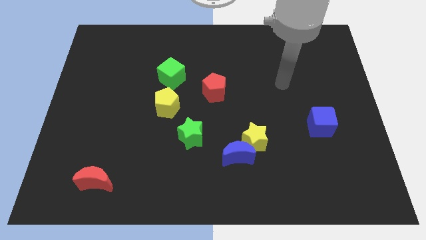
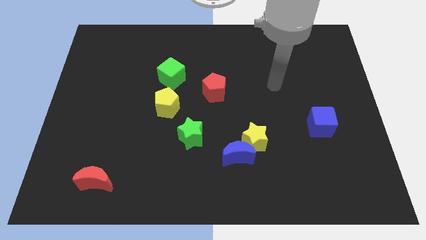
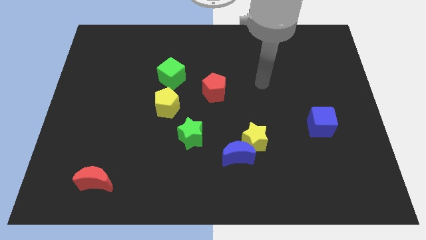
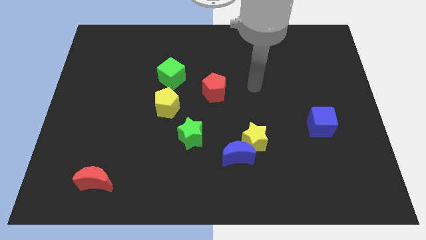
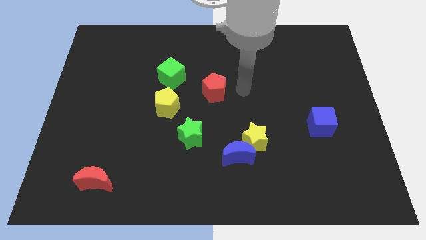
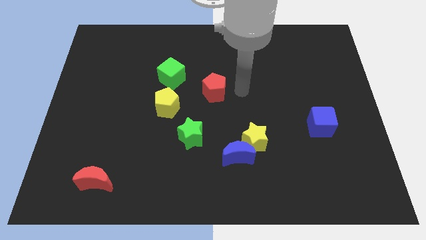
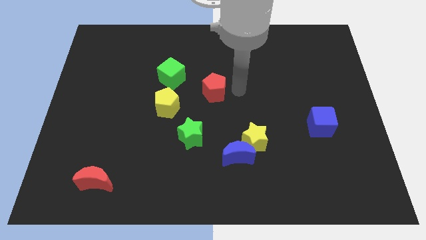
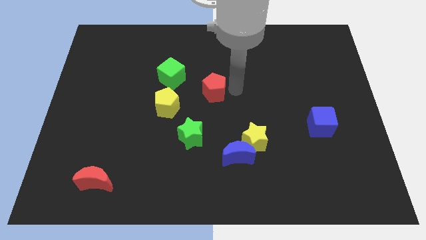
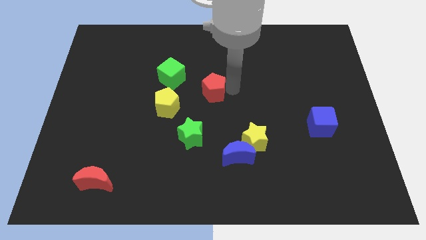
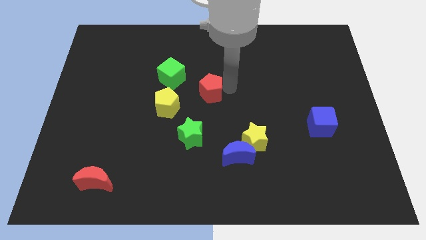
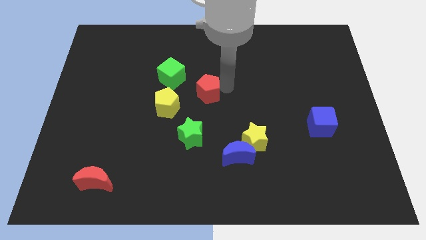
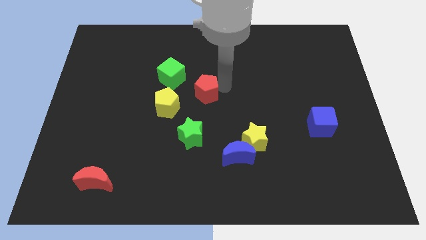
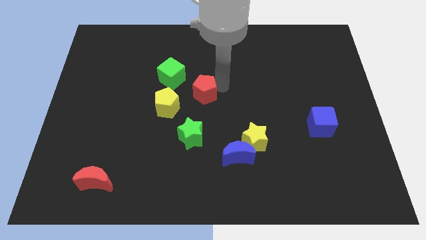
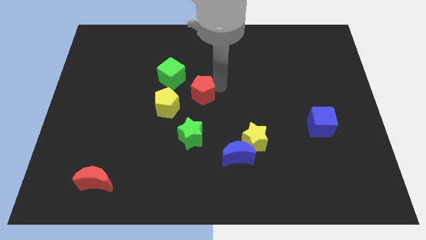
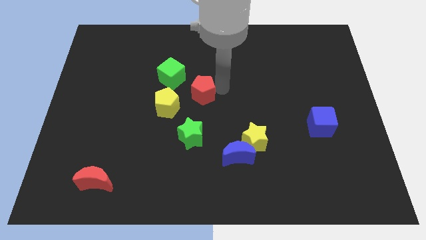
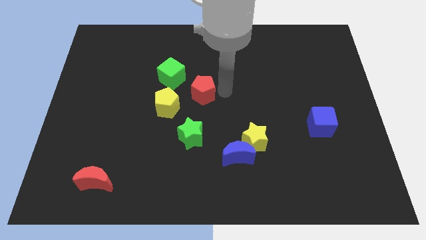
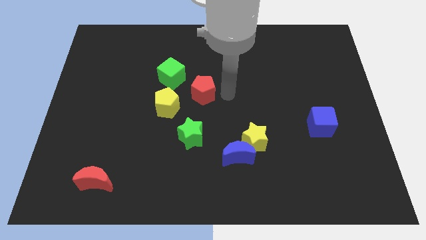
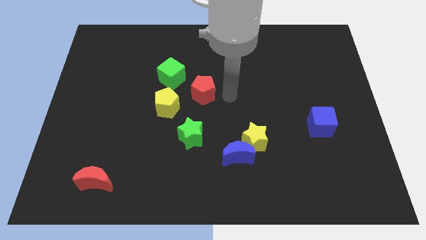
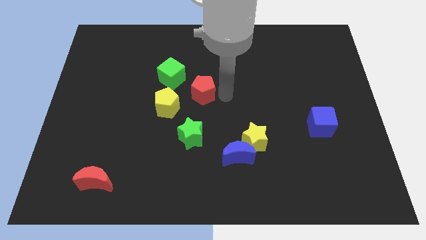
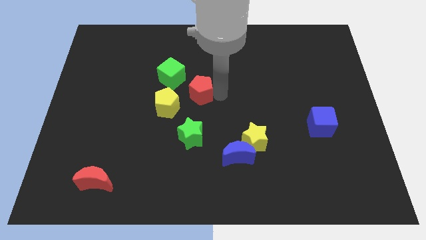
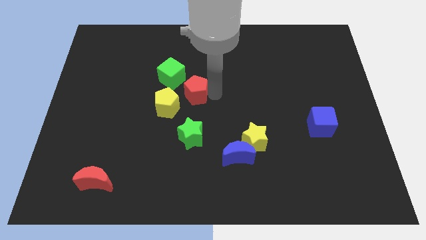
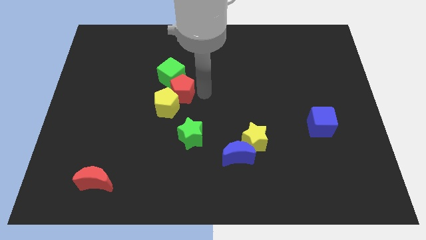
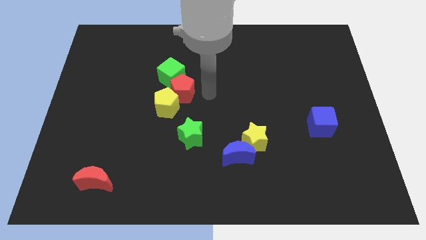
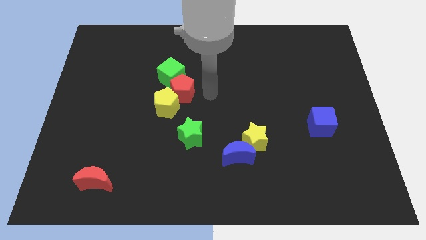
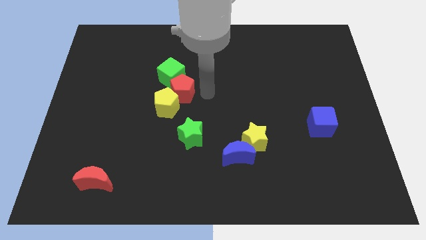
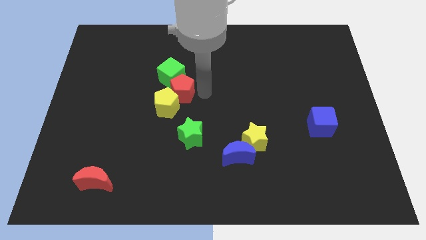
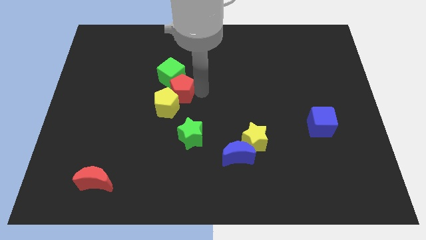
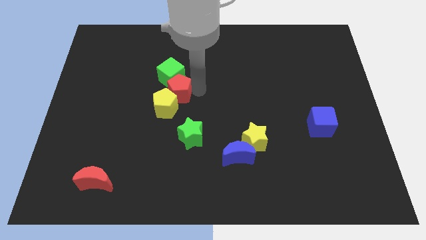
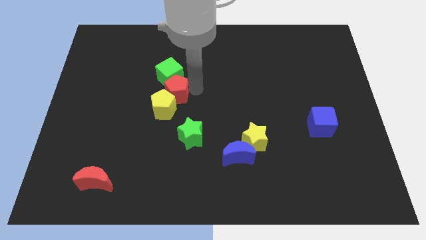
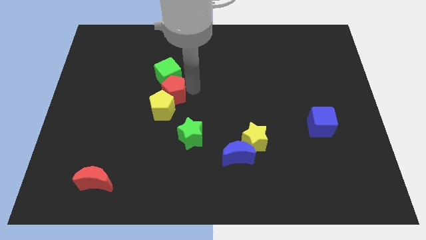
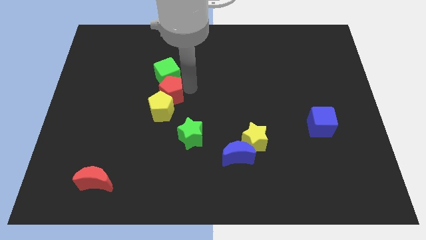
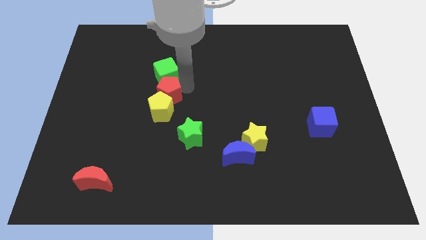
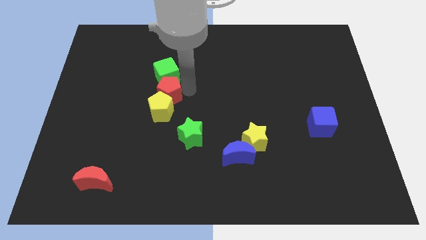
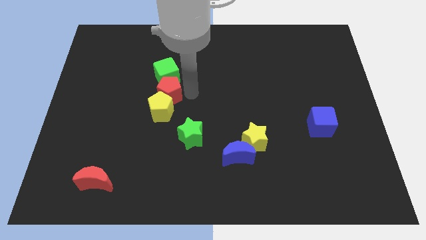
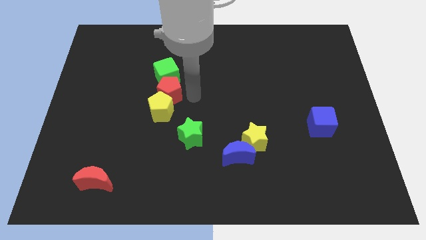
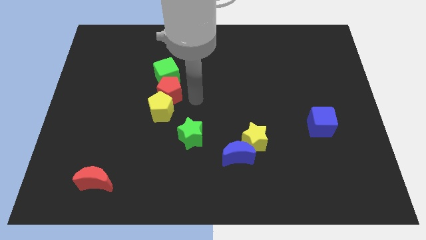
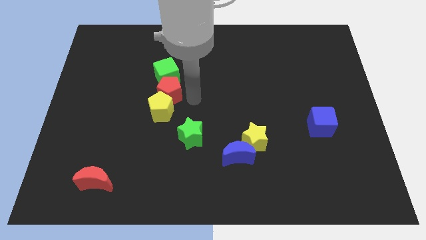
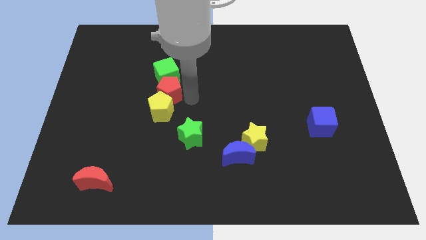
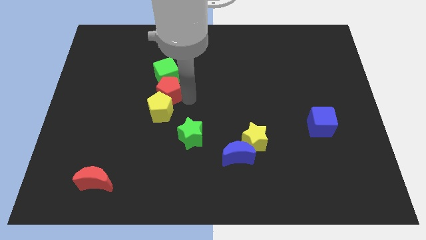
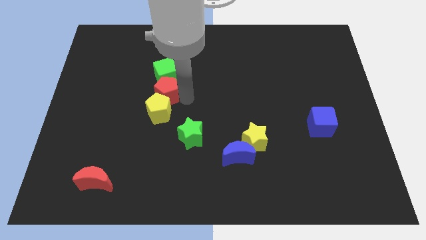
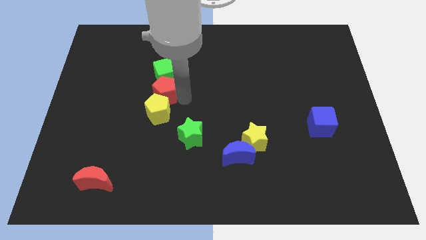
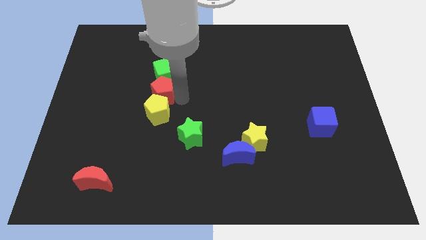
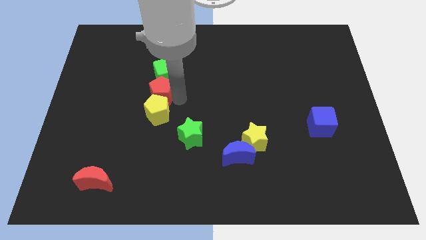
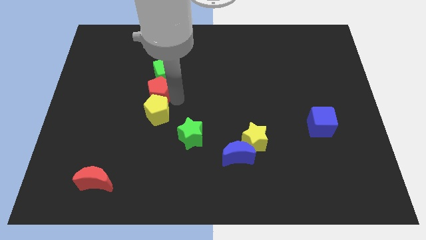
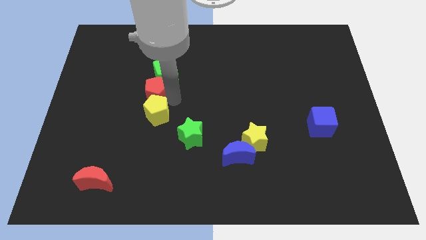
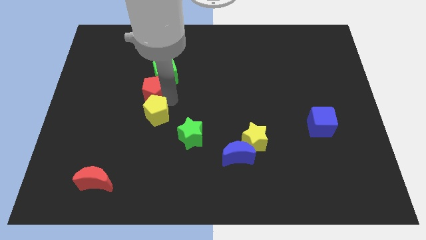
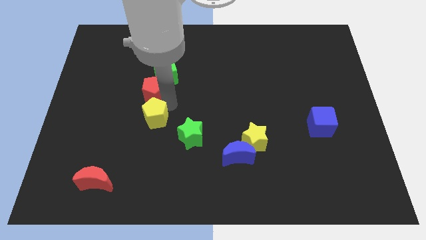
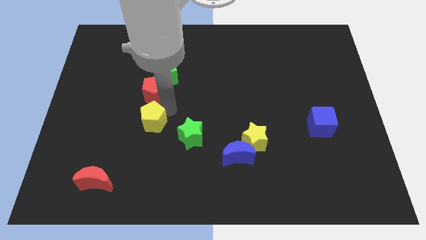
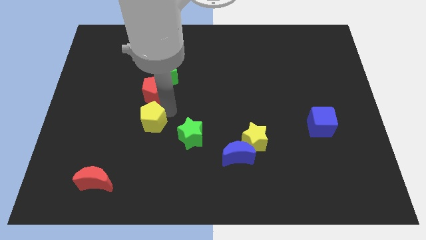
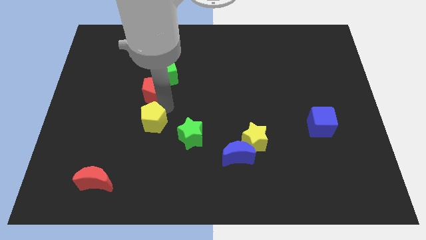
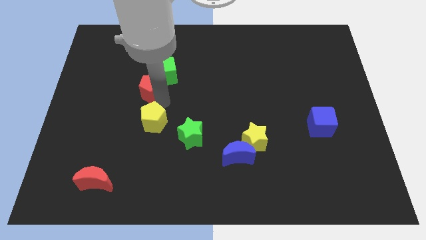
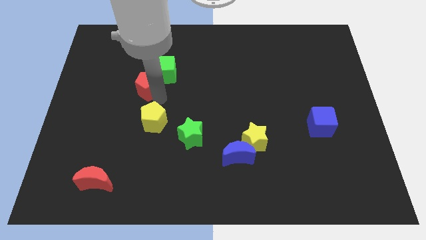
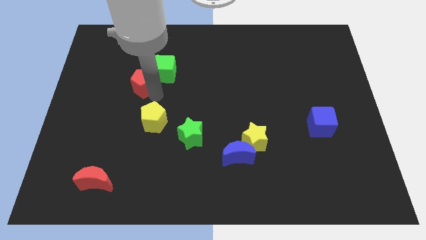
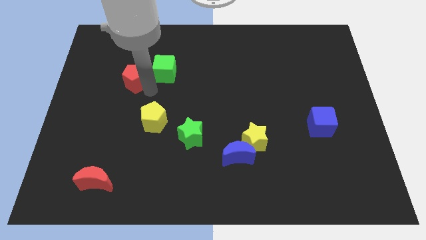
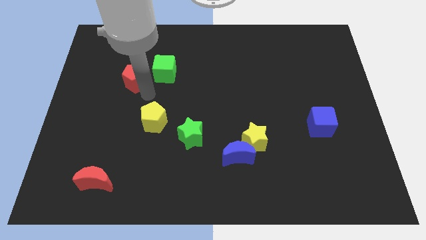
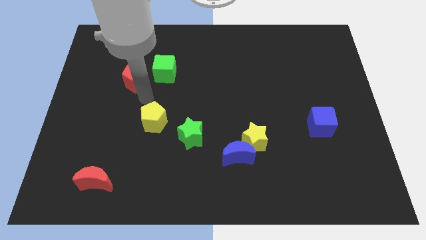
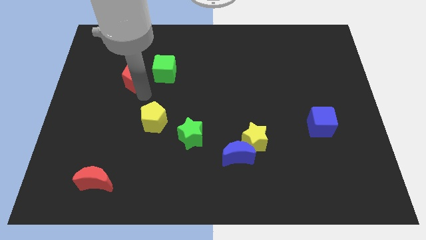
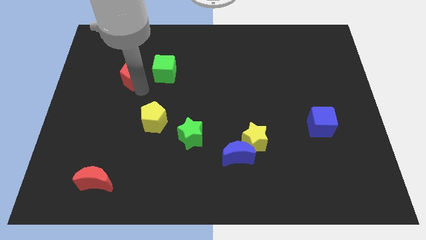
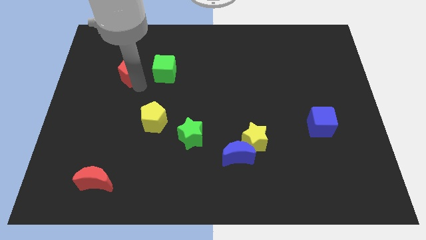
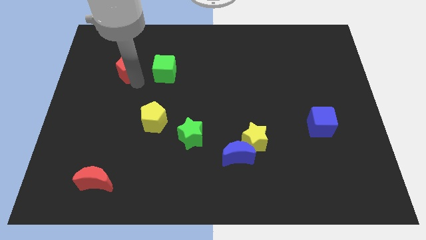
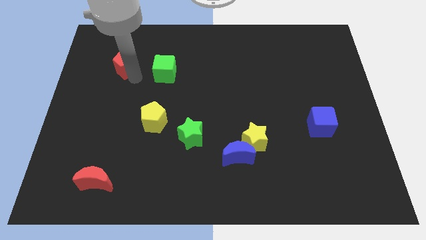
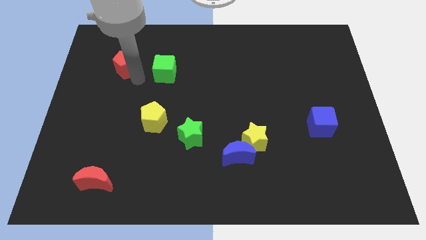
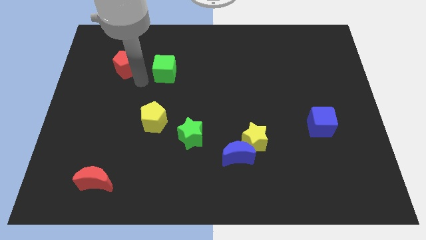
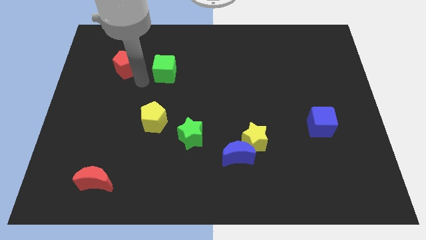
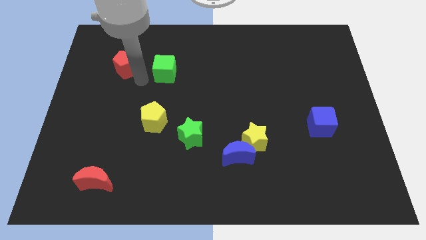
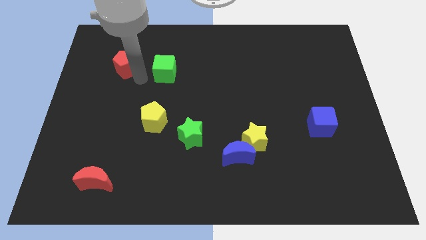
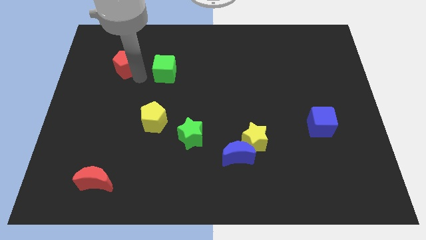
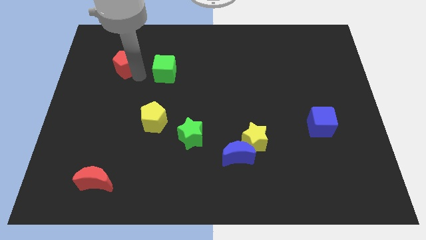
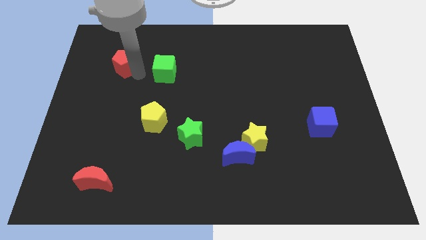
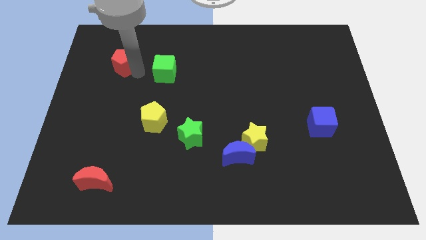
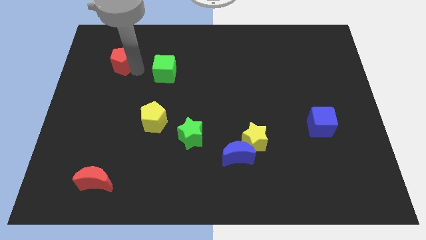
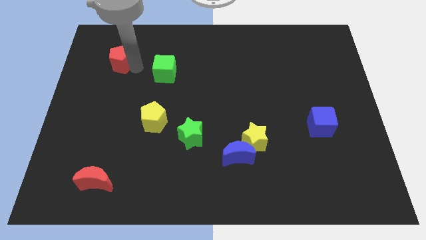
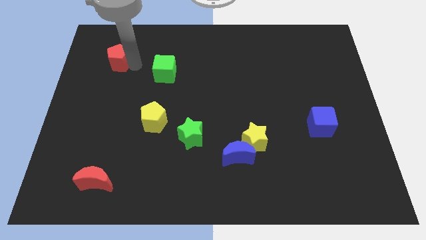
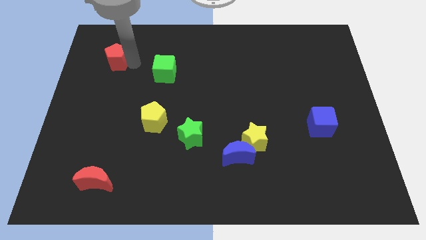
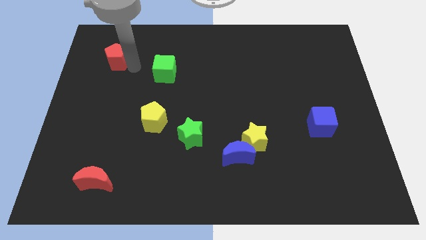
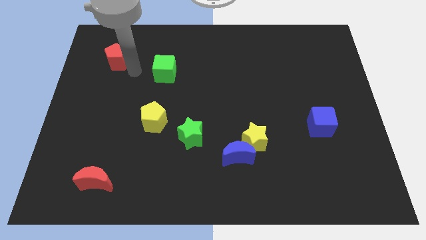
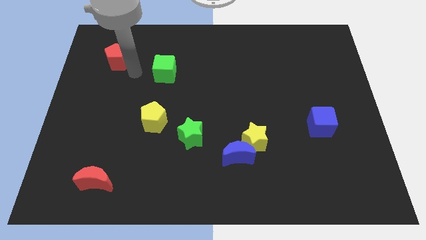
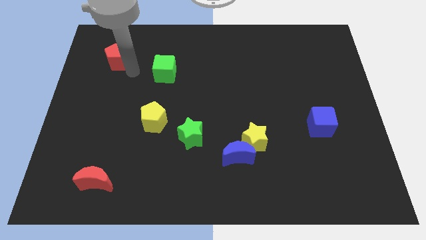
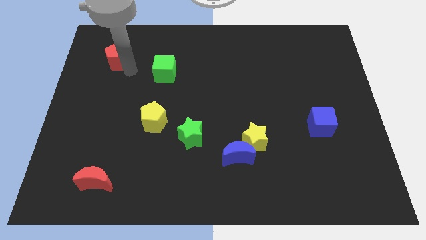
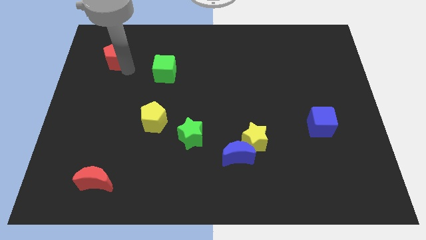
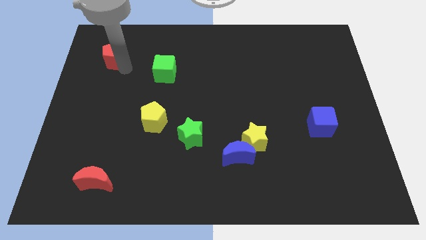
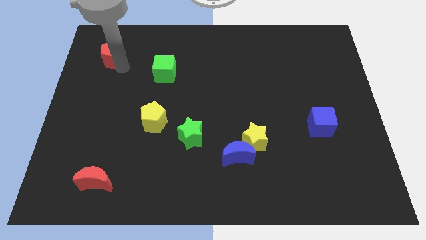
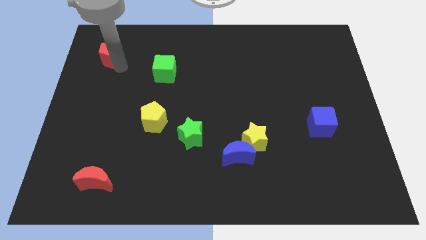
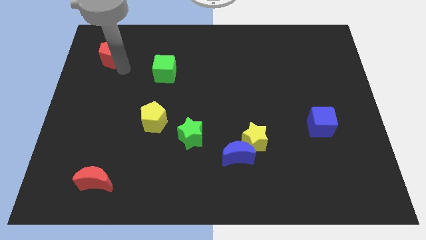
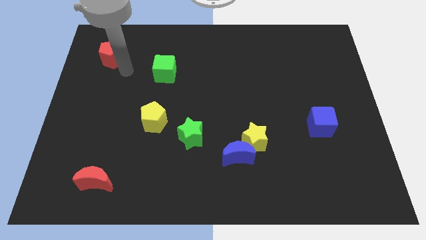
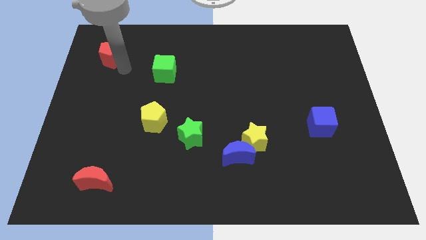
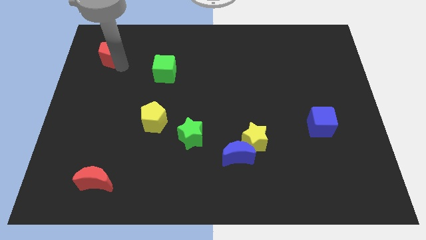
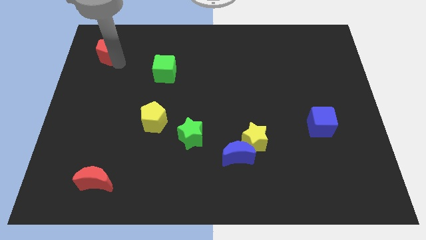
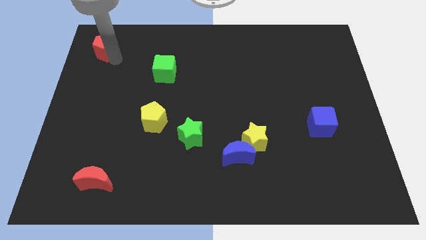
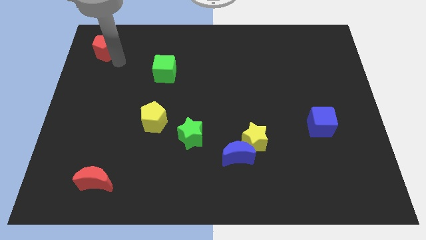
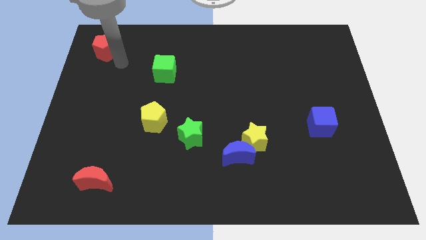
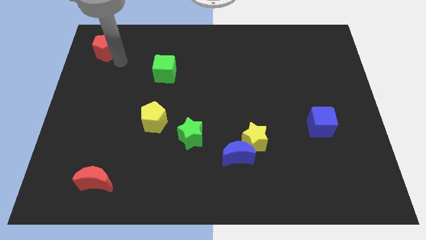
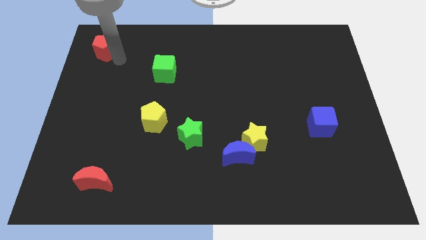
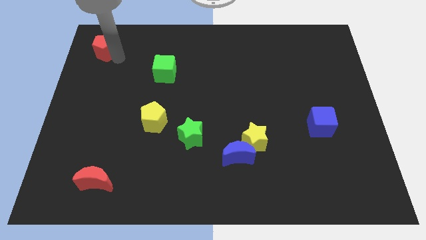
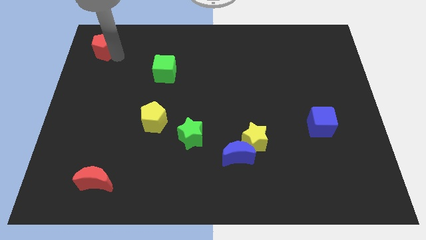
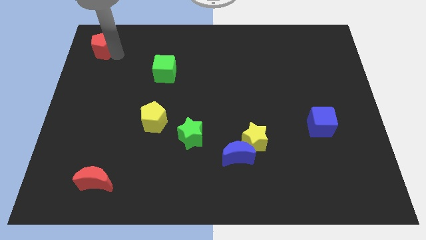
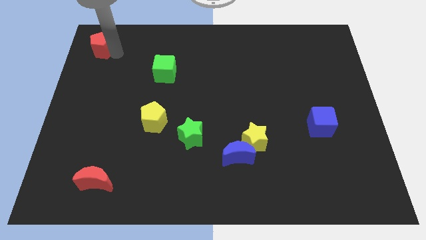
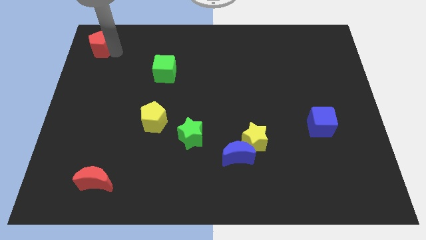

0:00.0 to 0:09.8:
push the red pentagon to the upper left corner
